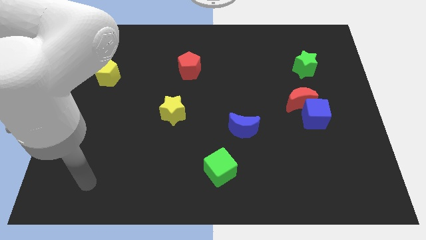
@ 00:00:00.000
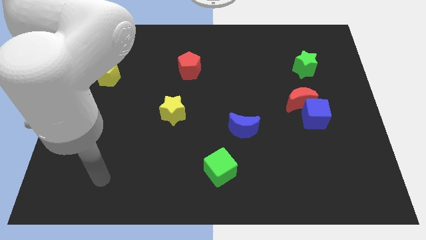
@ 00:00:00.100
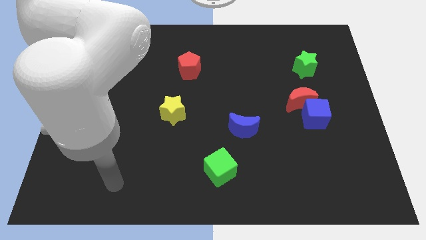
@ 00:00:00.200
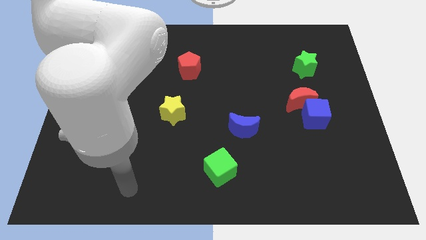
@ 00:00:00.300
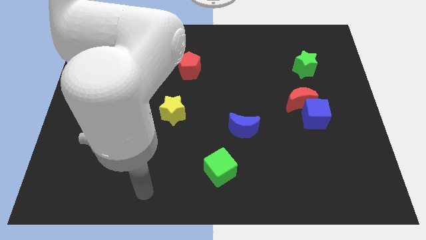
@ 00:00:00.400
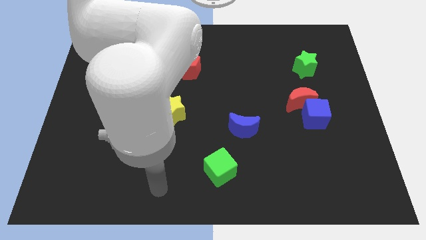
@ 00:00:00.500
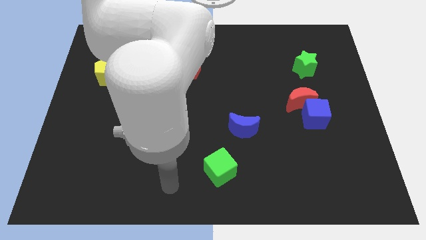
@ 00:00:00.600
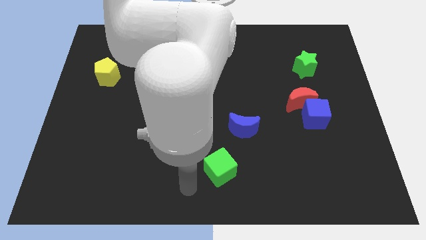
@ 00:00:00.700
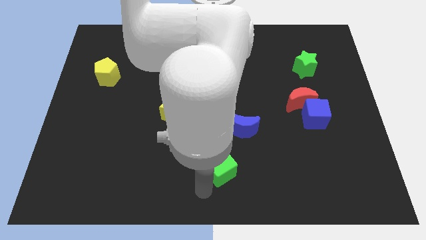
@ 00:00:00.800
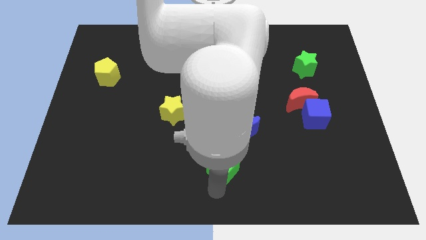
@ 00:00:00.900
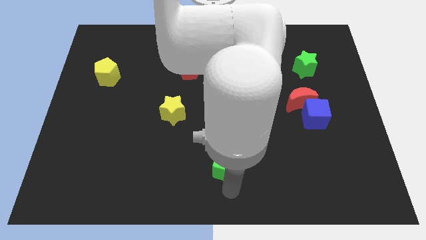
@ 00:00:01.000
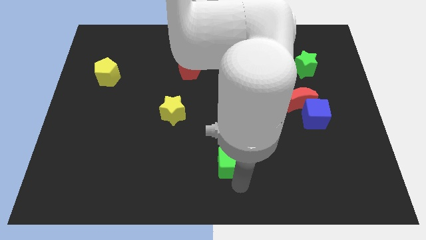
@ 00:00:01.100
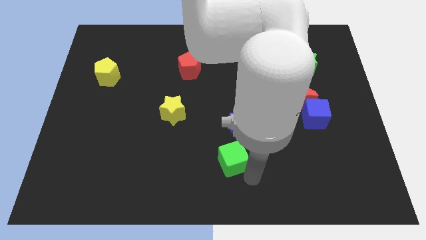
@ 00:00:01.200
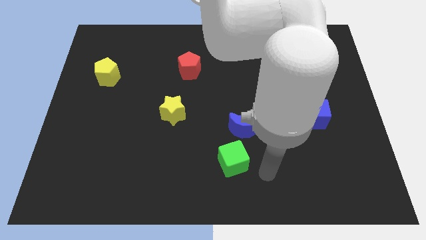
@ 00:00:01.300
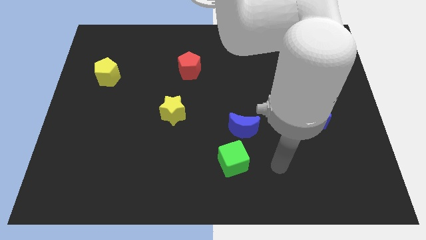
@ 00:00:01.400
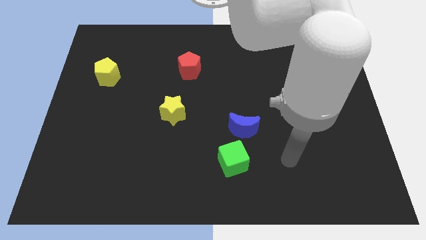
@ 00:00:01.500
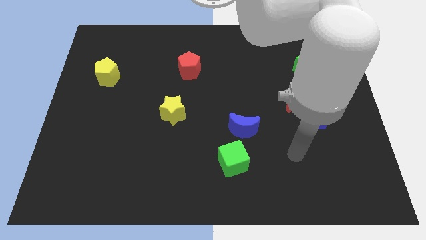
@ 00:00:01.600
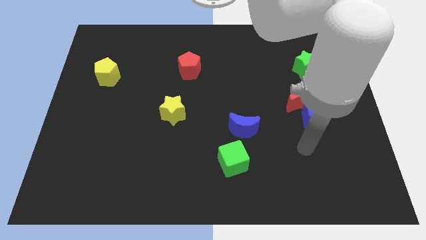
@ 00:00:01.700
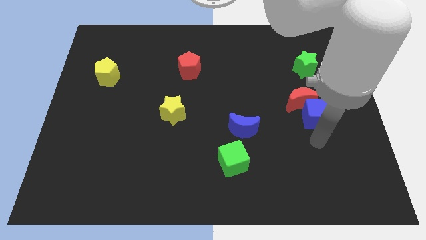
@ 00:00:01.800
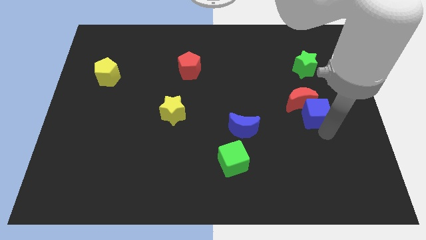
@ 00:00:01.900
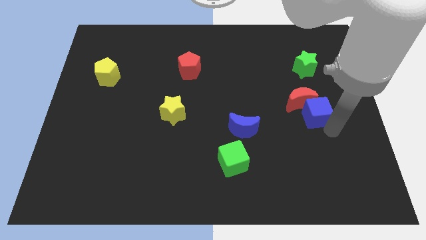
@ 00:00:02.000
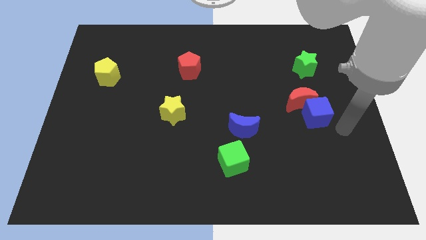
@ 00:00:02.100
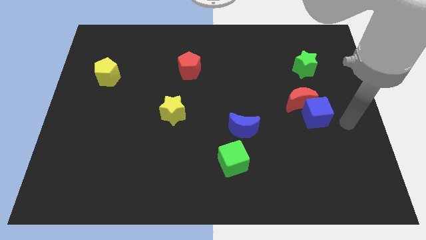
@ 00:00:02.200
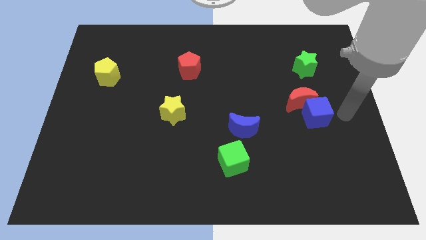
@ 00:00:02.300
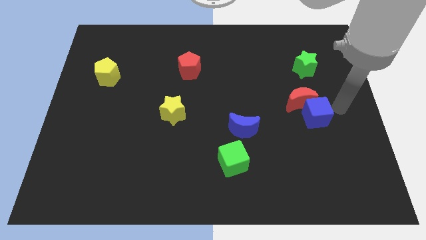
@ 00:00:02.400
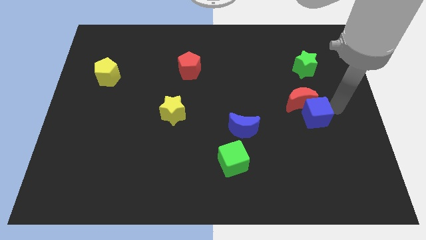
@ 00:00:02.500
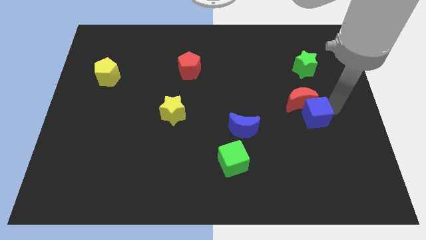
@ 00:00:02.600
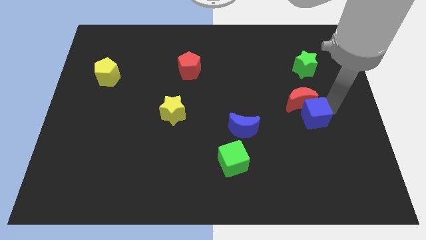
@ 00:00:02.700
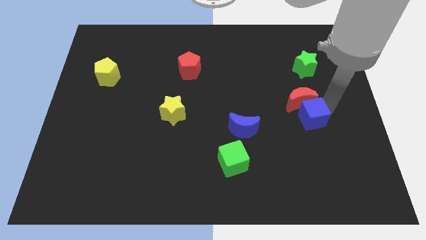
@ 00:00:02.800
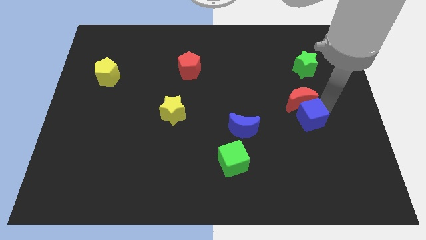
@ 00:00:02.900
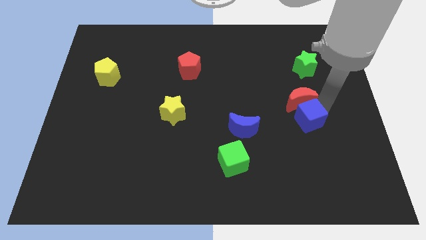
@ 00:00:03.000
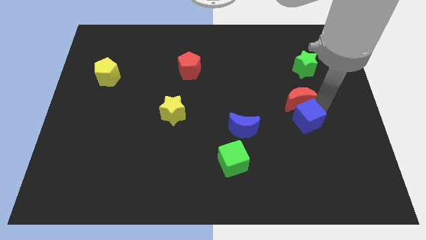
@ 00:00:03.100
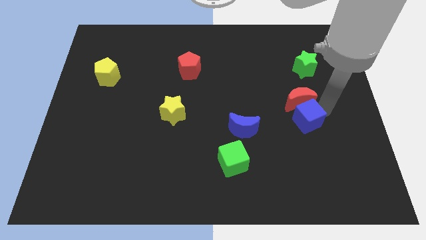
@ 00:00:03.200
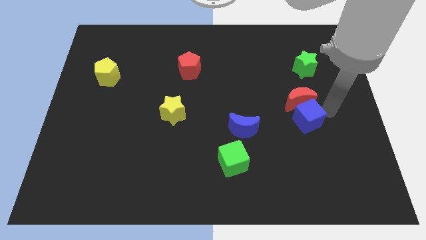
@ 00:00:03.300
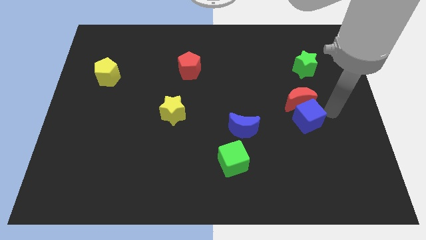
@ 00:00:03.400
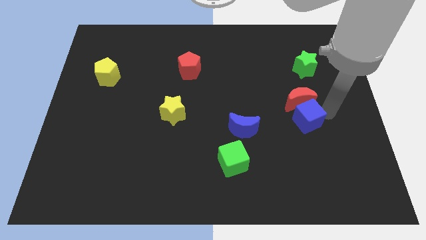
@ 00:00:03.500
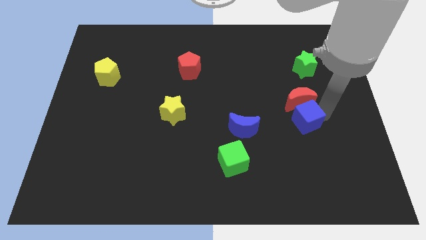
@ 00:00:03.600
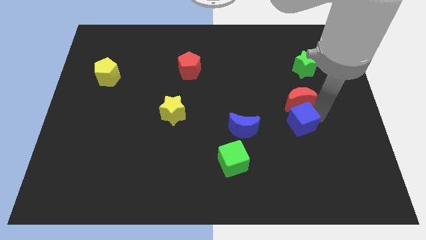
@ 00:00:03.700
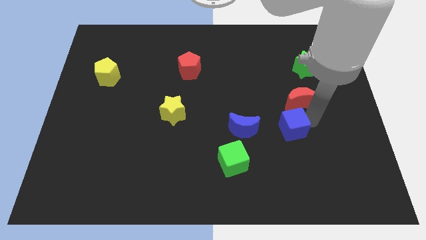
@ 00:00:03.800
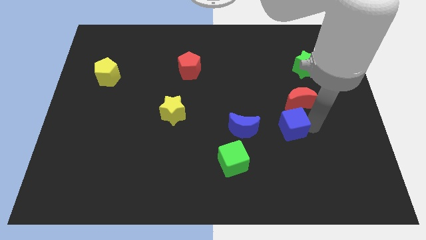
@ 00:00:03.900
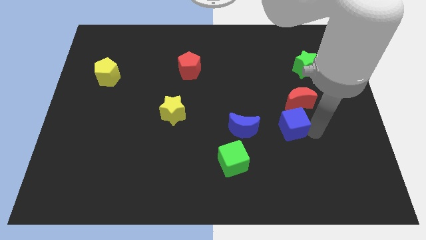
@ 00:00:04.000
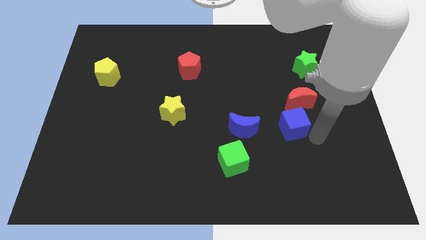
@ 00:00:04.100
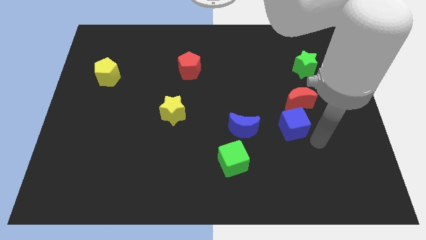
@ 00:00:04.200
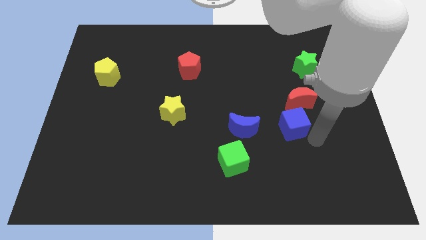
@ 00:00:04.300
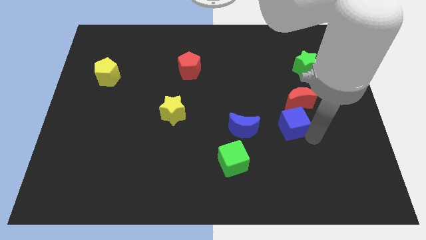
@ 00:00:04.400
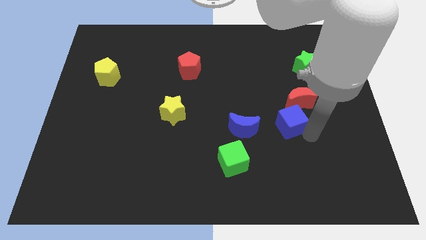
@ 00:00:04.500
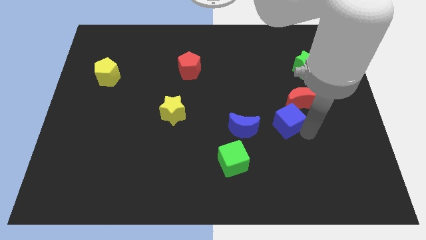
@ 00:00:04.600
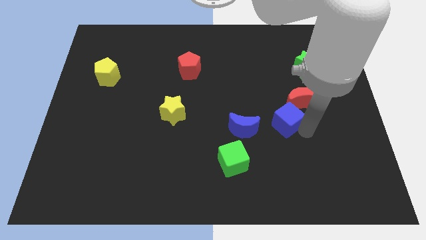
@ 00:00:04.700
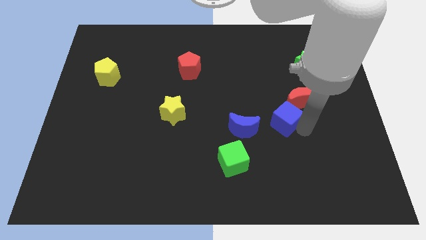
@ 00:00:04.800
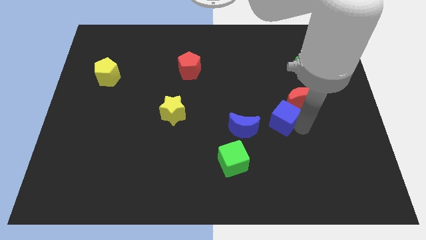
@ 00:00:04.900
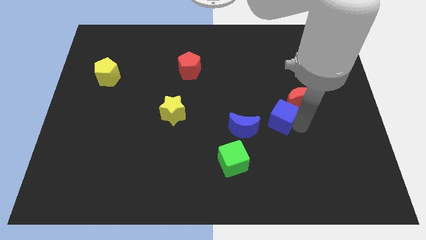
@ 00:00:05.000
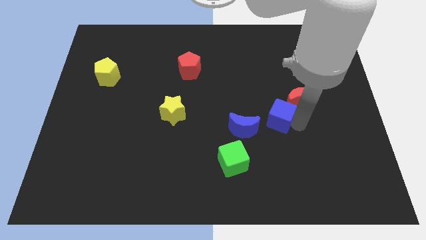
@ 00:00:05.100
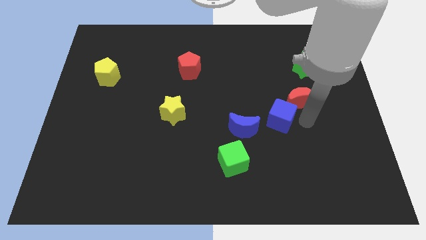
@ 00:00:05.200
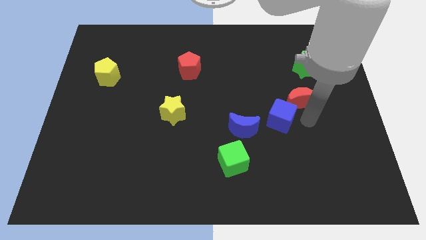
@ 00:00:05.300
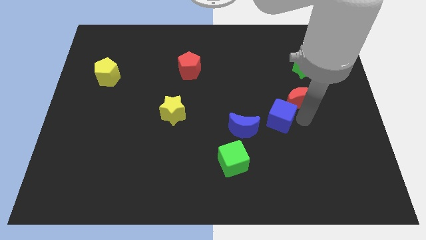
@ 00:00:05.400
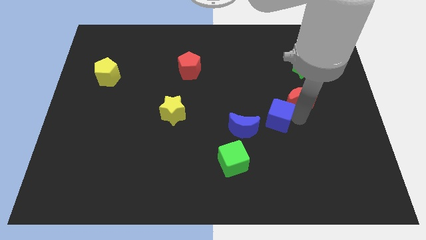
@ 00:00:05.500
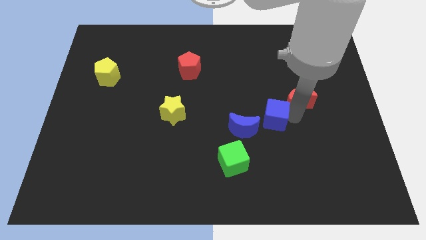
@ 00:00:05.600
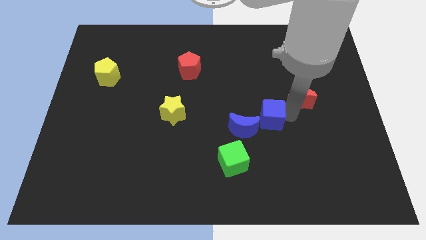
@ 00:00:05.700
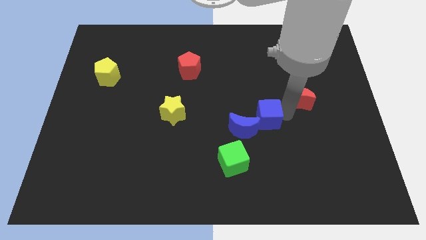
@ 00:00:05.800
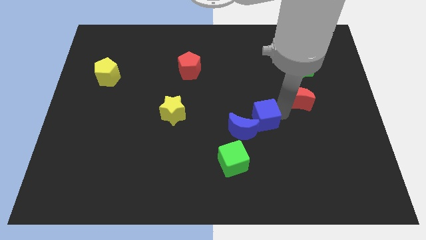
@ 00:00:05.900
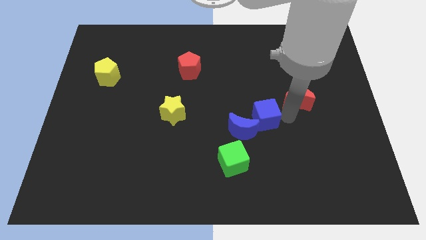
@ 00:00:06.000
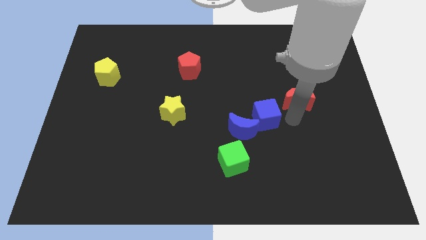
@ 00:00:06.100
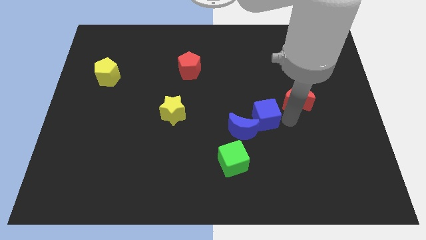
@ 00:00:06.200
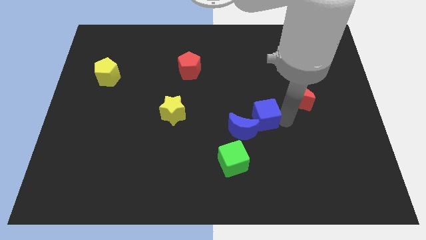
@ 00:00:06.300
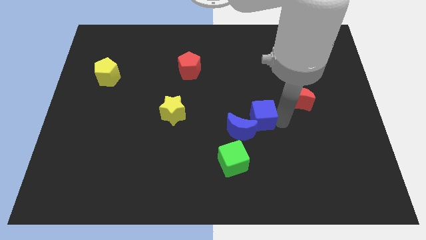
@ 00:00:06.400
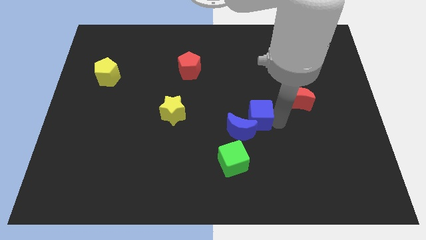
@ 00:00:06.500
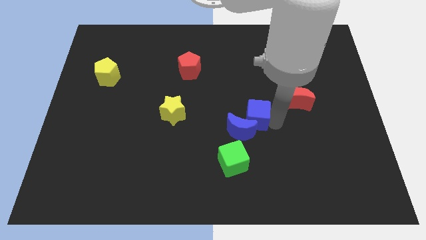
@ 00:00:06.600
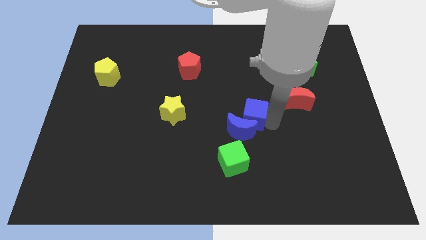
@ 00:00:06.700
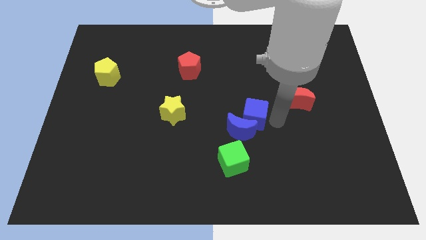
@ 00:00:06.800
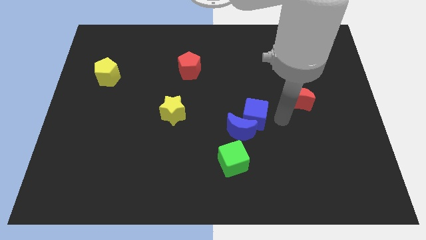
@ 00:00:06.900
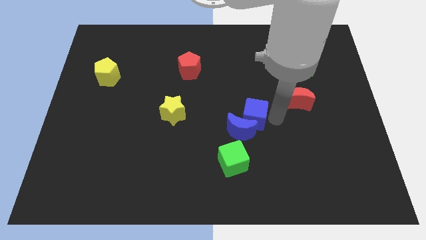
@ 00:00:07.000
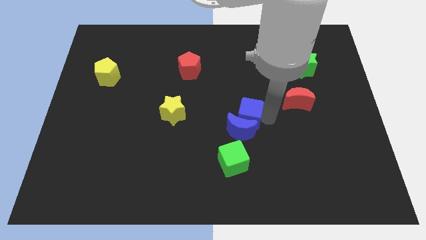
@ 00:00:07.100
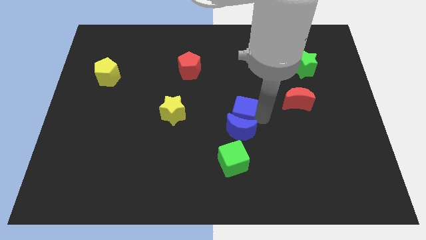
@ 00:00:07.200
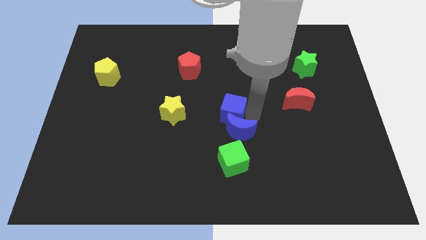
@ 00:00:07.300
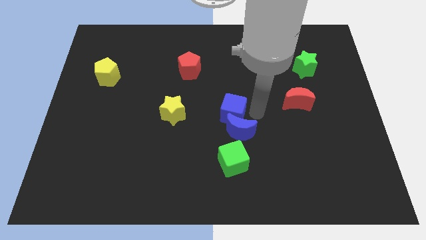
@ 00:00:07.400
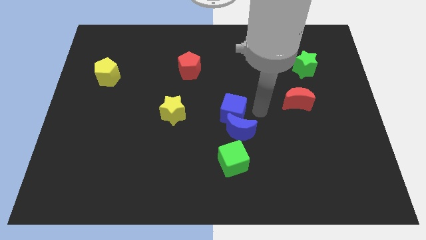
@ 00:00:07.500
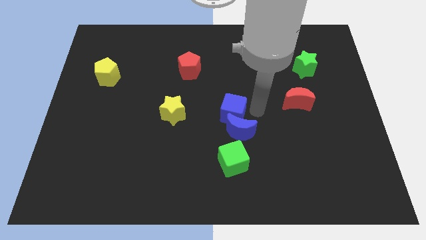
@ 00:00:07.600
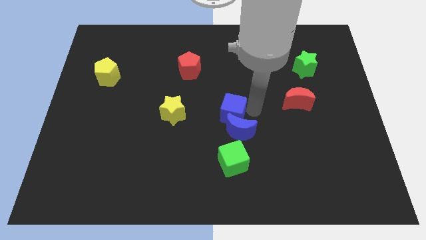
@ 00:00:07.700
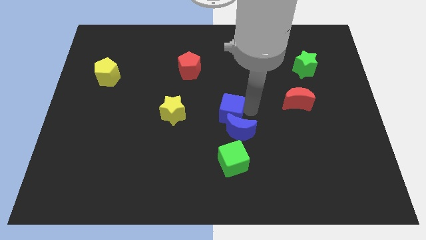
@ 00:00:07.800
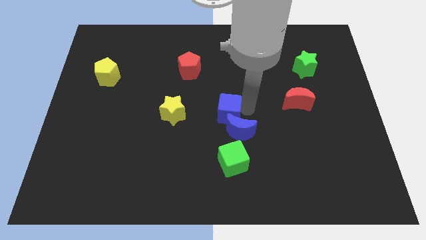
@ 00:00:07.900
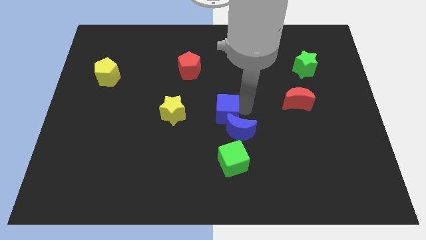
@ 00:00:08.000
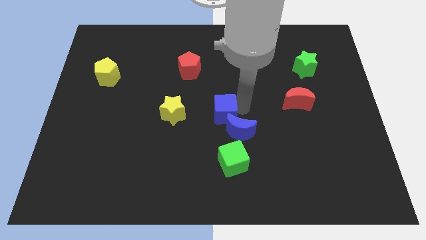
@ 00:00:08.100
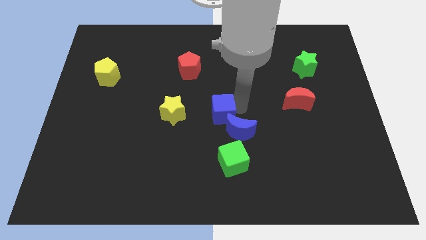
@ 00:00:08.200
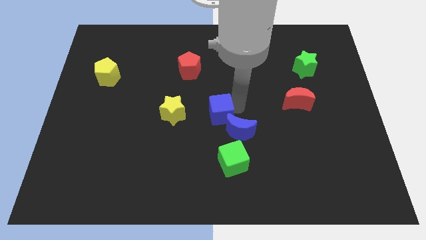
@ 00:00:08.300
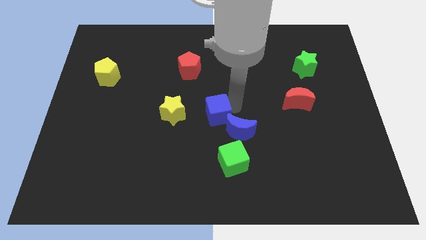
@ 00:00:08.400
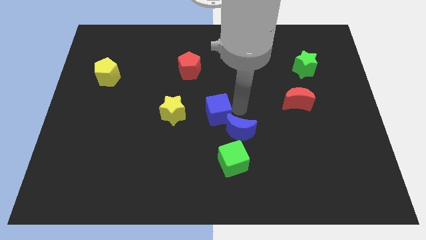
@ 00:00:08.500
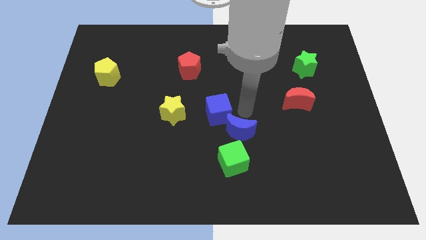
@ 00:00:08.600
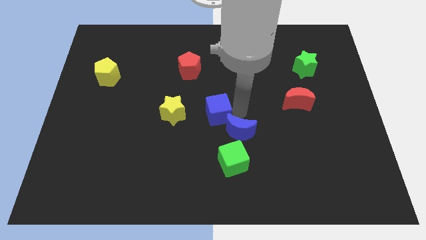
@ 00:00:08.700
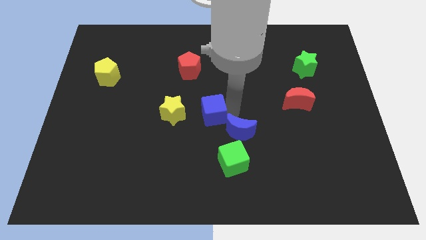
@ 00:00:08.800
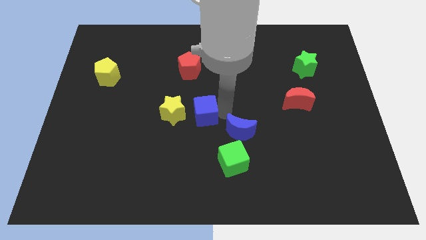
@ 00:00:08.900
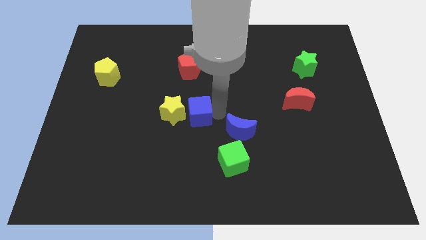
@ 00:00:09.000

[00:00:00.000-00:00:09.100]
put the blue cube to the yellow star
